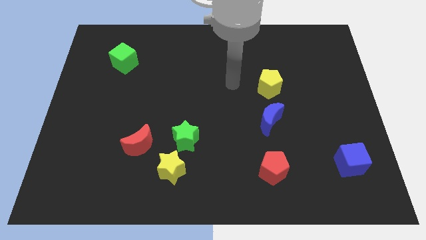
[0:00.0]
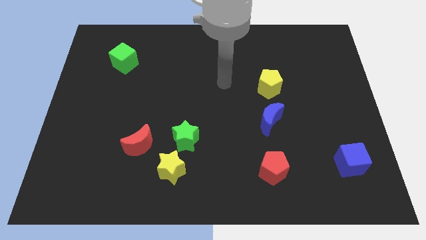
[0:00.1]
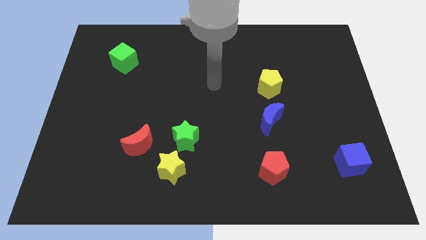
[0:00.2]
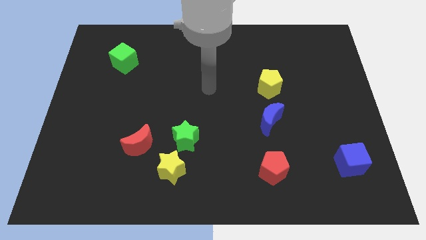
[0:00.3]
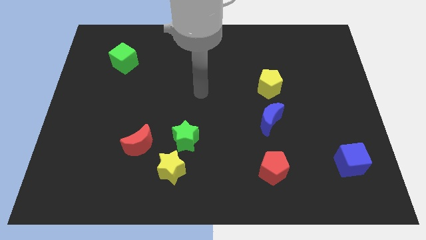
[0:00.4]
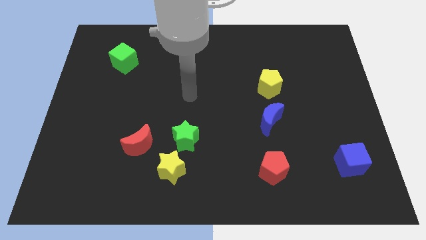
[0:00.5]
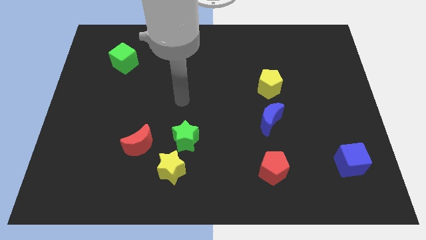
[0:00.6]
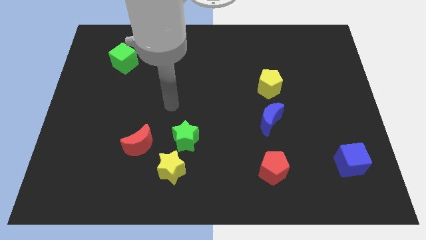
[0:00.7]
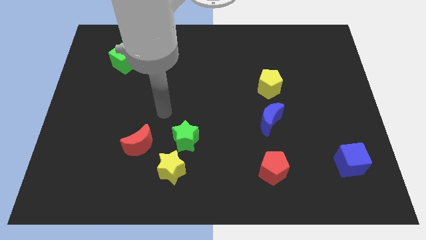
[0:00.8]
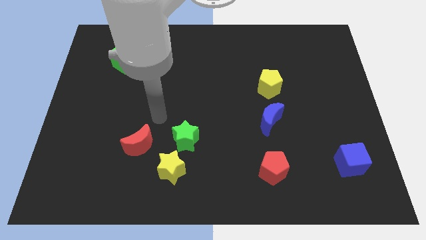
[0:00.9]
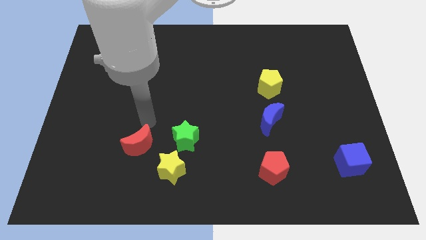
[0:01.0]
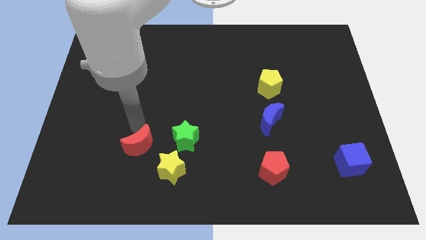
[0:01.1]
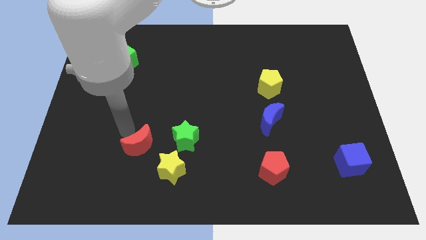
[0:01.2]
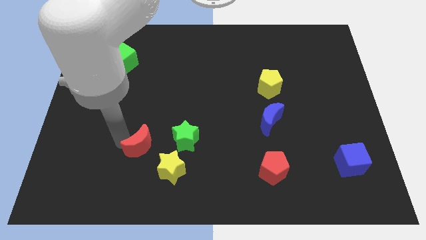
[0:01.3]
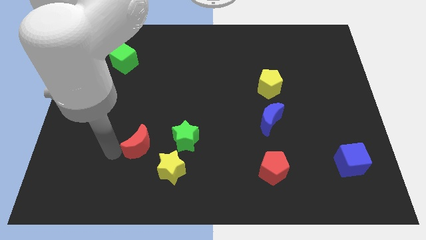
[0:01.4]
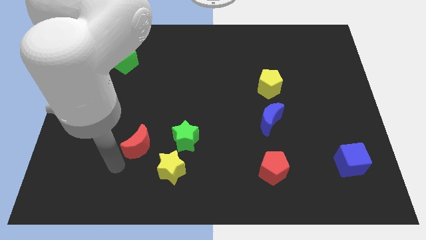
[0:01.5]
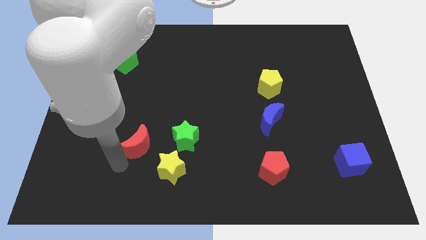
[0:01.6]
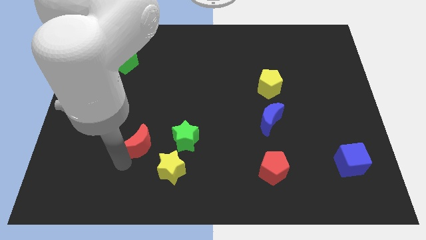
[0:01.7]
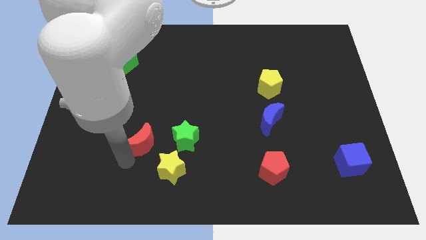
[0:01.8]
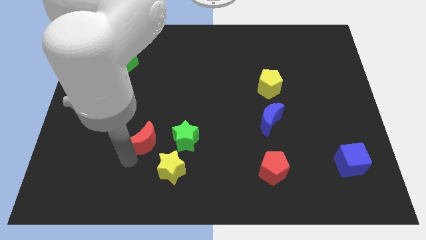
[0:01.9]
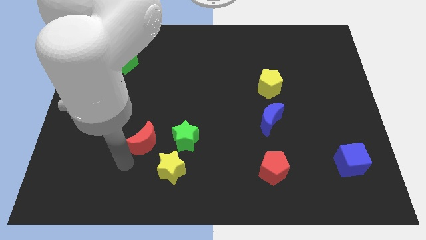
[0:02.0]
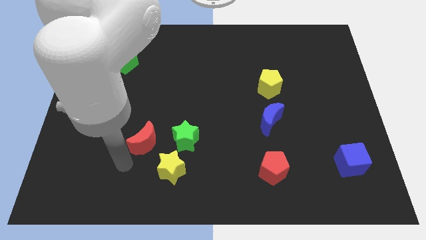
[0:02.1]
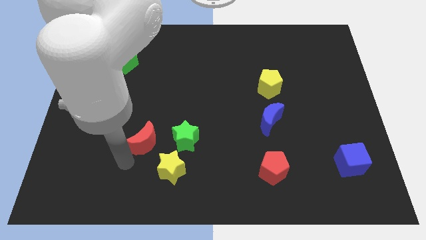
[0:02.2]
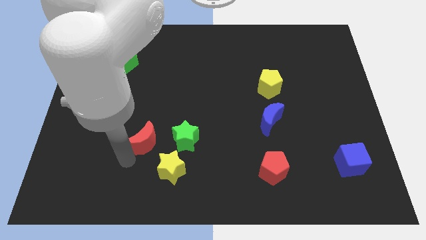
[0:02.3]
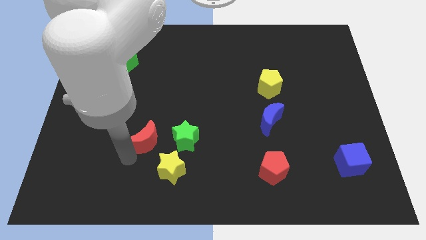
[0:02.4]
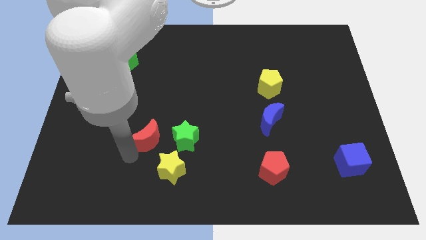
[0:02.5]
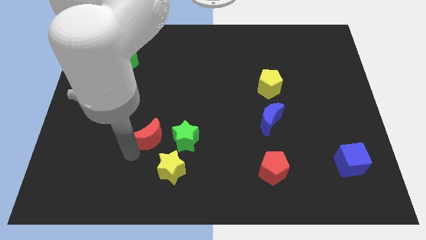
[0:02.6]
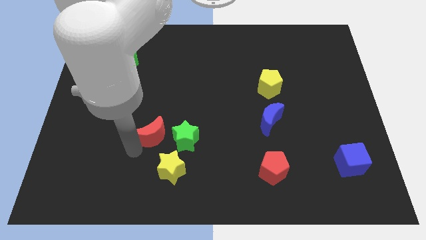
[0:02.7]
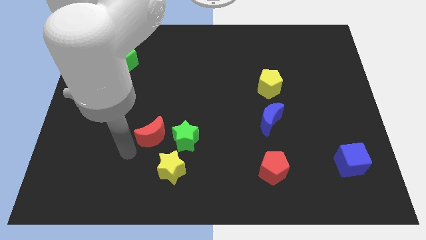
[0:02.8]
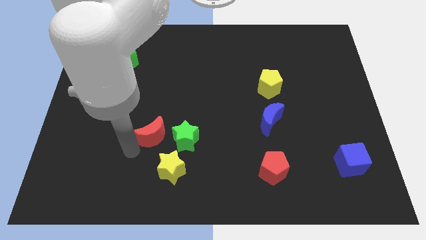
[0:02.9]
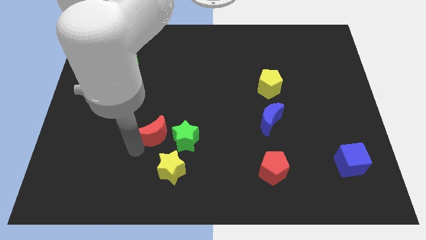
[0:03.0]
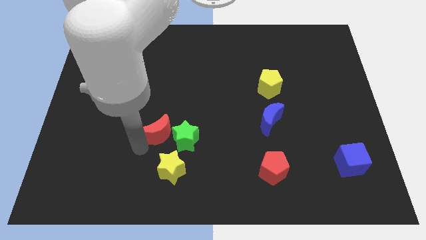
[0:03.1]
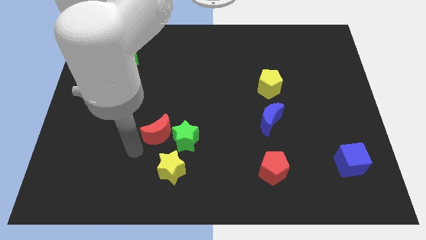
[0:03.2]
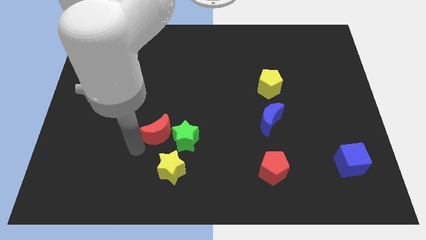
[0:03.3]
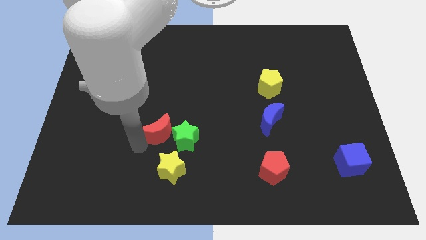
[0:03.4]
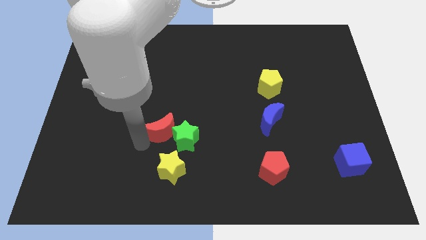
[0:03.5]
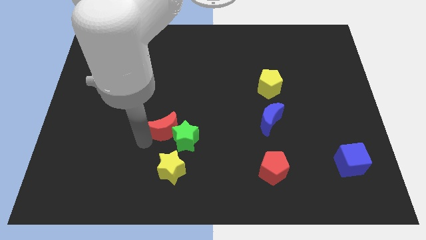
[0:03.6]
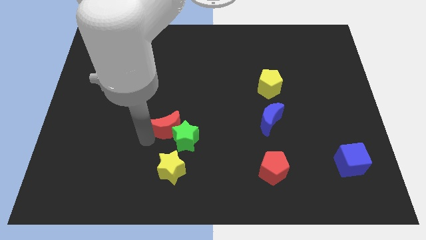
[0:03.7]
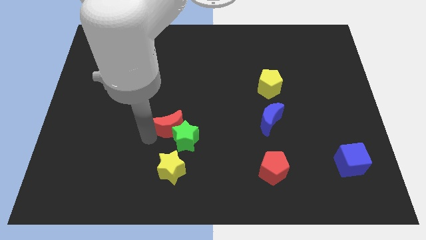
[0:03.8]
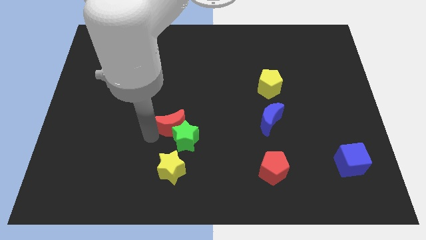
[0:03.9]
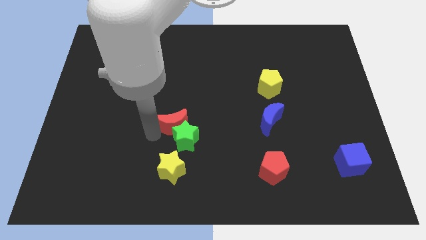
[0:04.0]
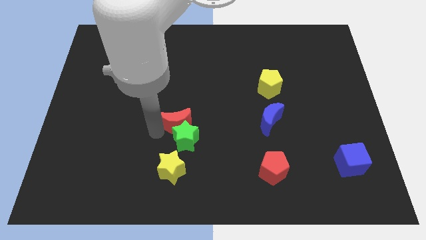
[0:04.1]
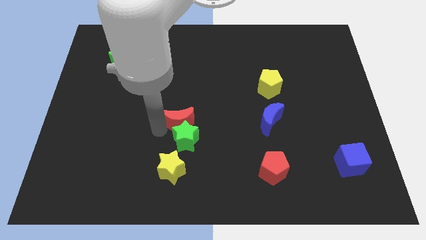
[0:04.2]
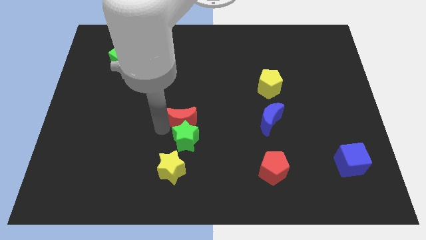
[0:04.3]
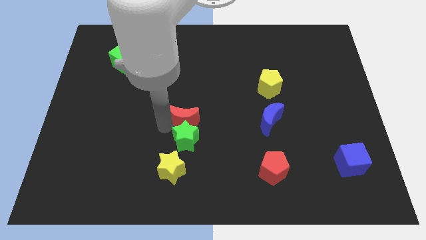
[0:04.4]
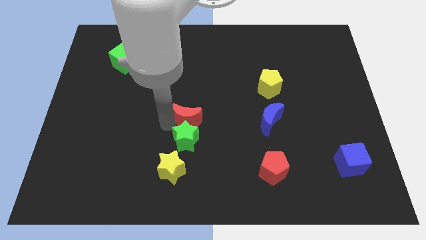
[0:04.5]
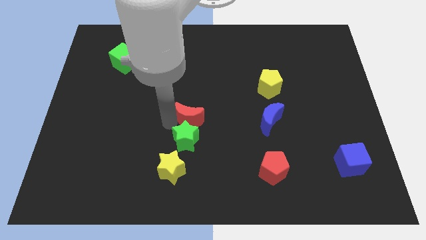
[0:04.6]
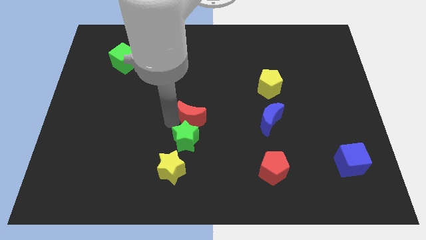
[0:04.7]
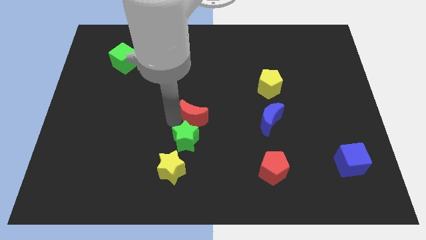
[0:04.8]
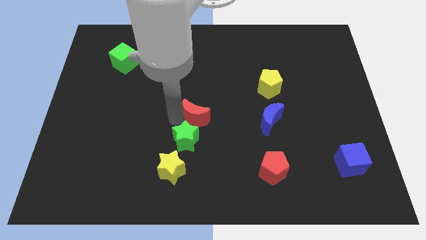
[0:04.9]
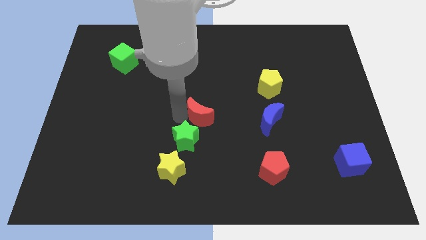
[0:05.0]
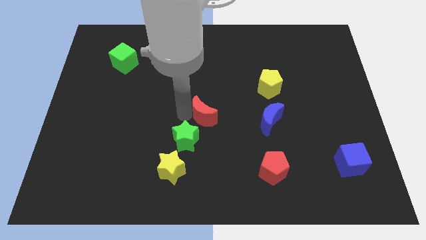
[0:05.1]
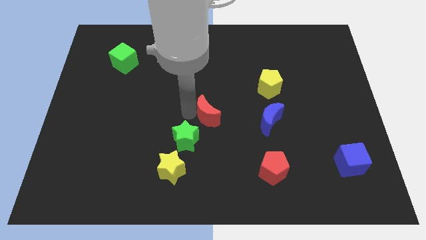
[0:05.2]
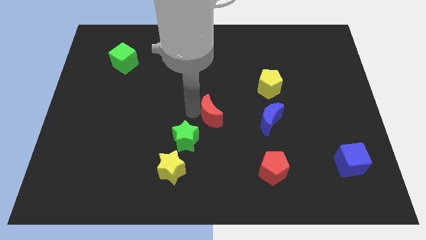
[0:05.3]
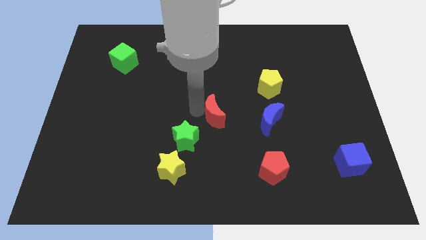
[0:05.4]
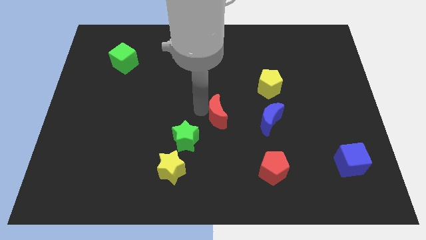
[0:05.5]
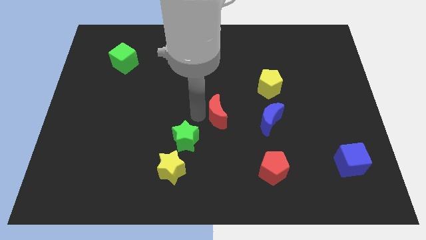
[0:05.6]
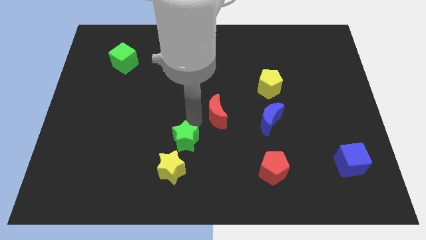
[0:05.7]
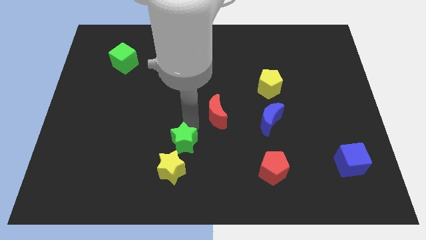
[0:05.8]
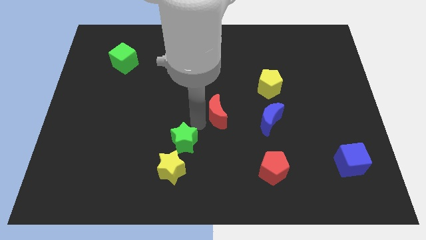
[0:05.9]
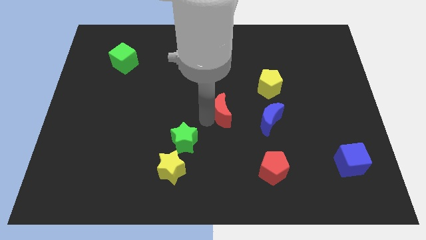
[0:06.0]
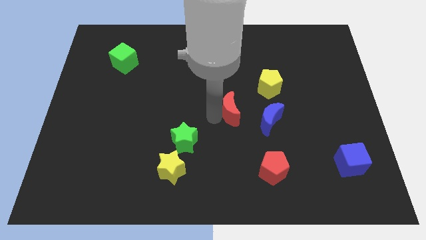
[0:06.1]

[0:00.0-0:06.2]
put the red moon to the top left of the blue moon

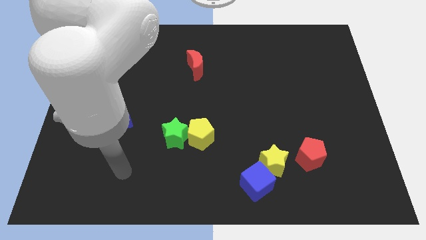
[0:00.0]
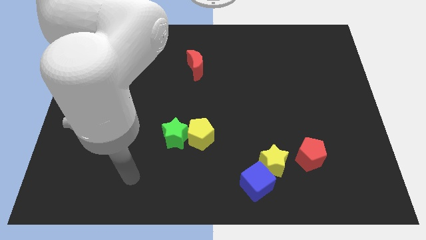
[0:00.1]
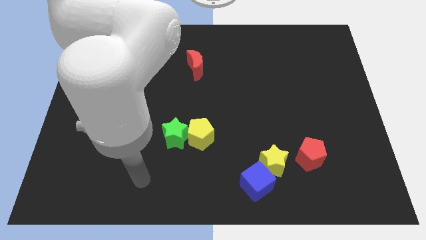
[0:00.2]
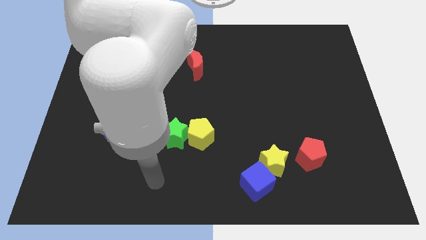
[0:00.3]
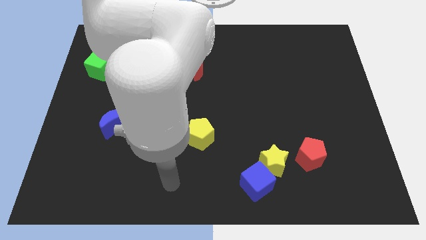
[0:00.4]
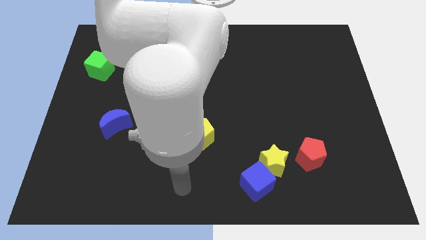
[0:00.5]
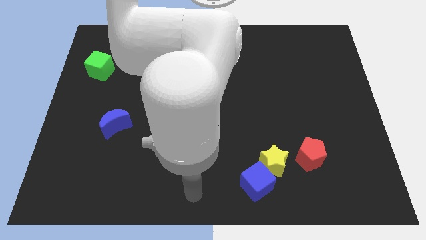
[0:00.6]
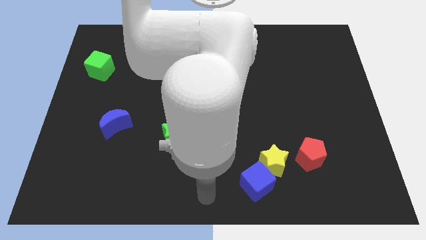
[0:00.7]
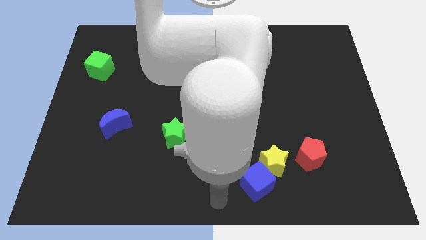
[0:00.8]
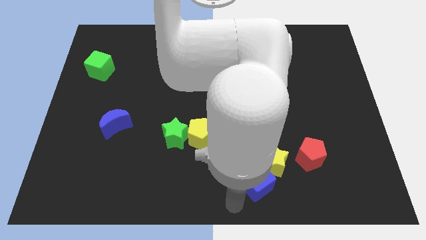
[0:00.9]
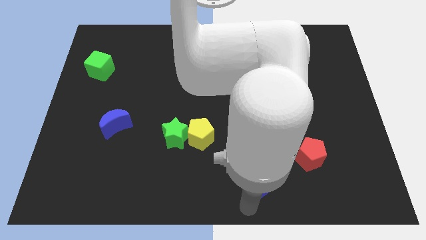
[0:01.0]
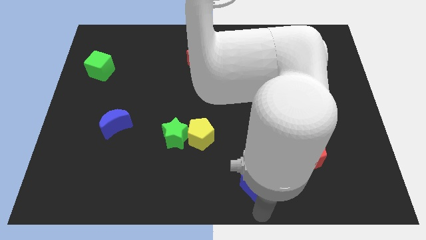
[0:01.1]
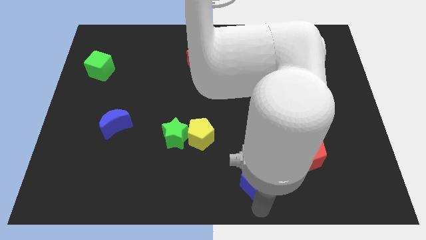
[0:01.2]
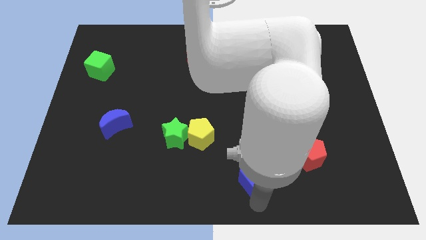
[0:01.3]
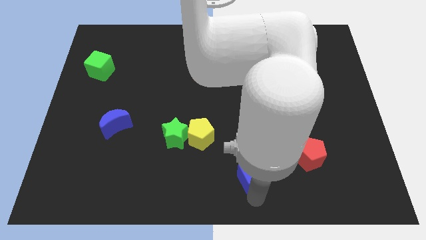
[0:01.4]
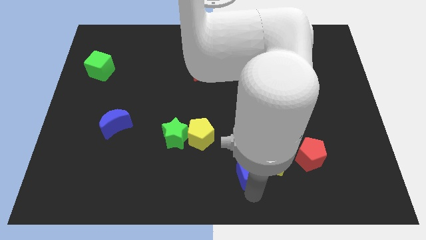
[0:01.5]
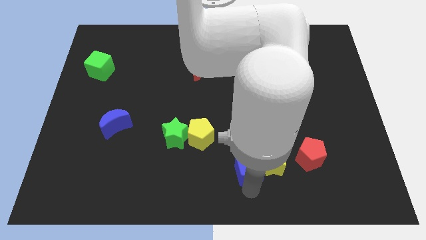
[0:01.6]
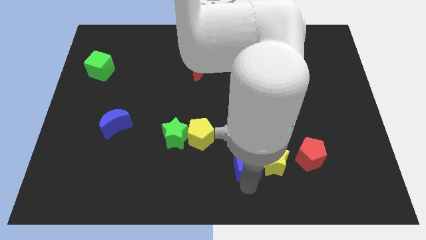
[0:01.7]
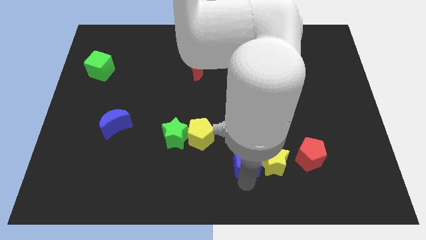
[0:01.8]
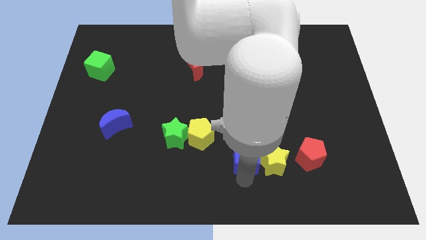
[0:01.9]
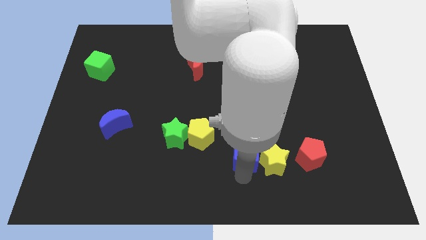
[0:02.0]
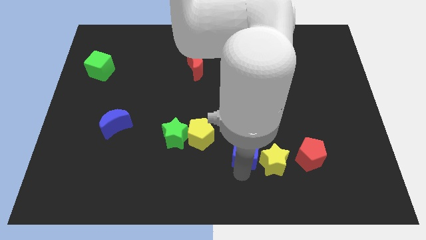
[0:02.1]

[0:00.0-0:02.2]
slide the blue cube to the right of the yellow pentagon
